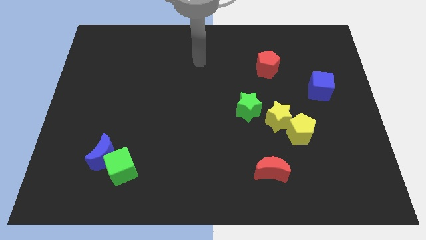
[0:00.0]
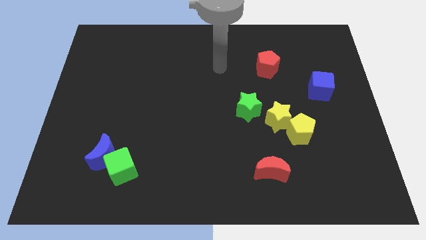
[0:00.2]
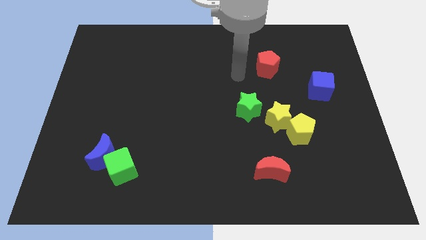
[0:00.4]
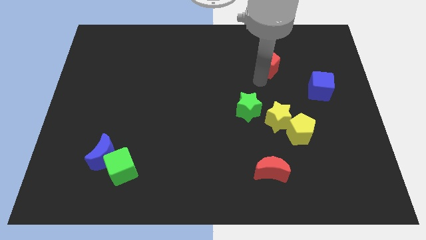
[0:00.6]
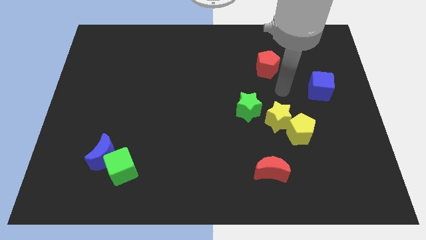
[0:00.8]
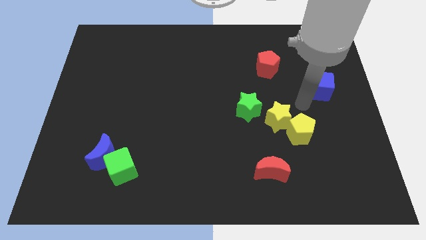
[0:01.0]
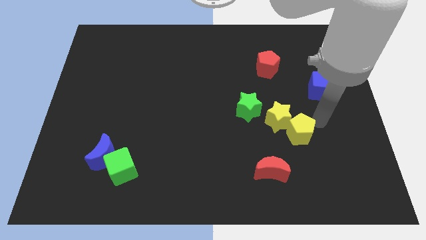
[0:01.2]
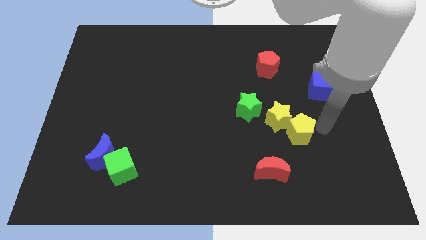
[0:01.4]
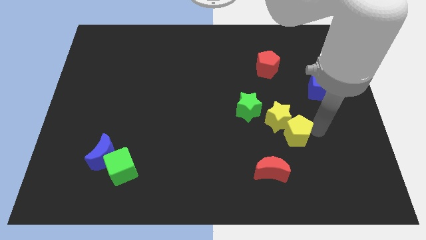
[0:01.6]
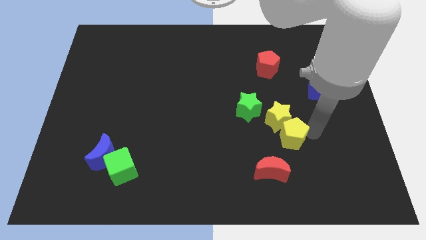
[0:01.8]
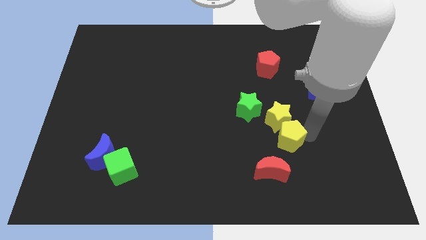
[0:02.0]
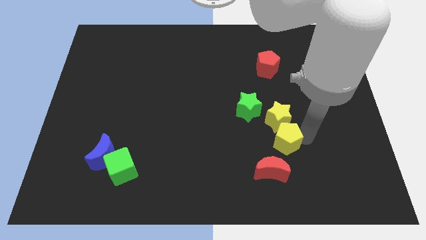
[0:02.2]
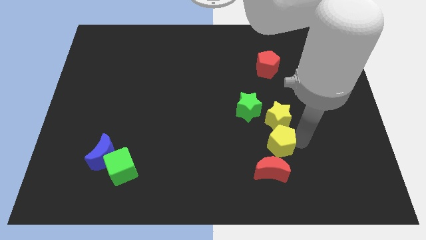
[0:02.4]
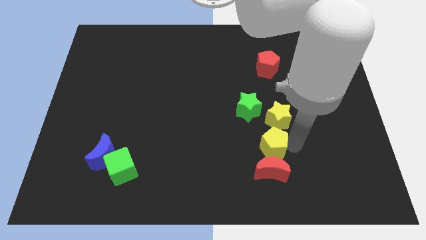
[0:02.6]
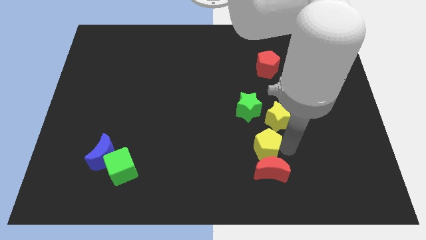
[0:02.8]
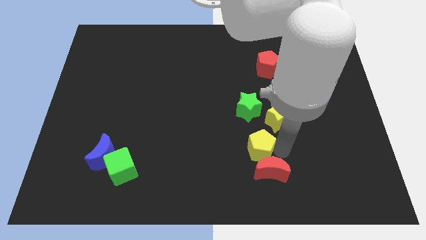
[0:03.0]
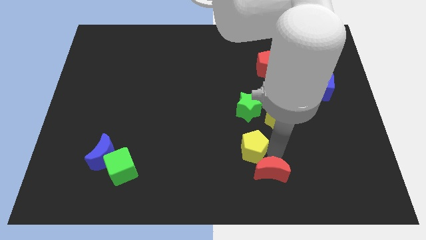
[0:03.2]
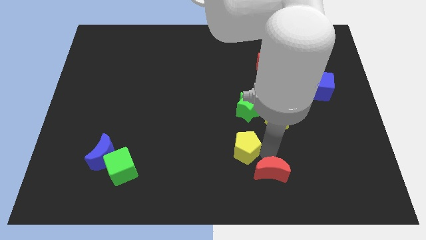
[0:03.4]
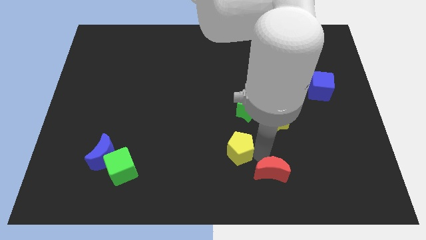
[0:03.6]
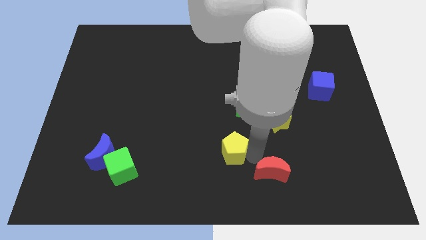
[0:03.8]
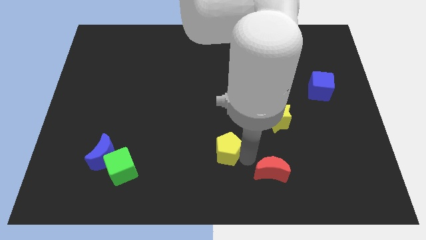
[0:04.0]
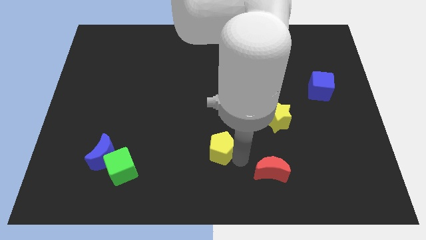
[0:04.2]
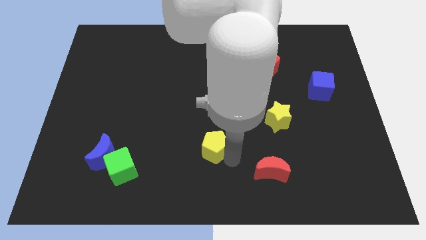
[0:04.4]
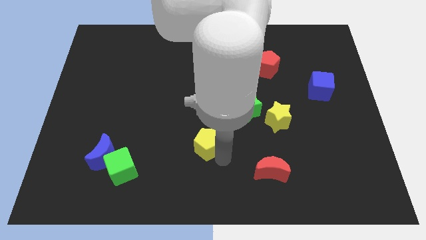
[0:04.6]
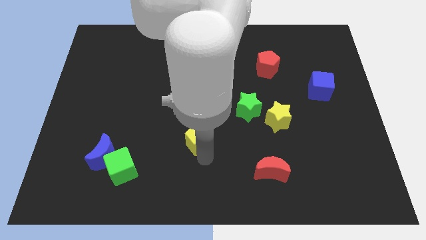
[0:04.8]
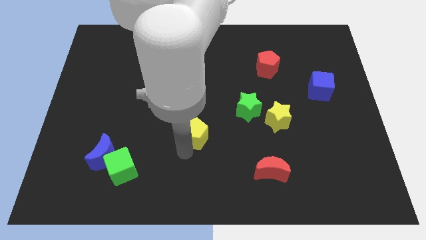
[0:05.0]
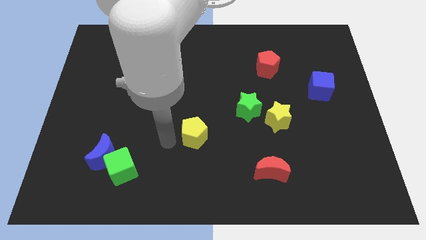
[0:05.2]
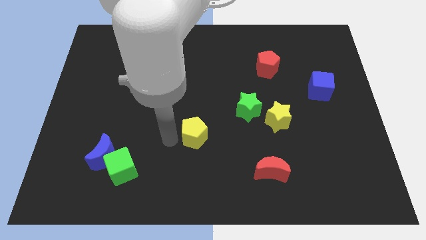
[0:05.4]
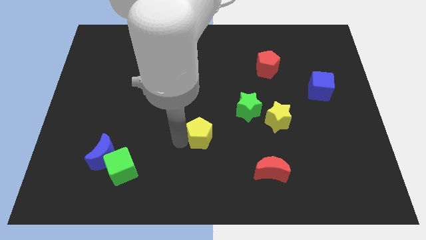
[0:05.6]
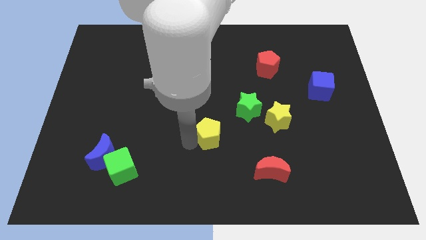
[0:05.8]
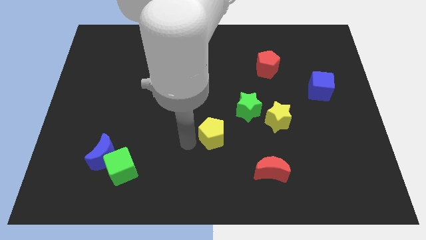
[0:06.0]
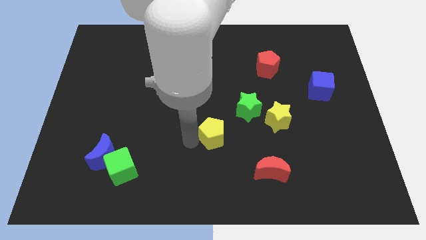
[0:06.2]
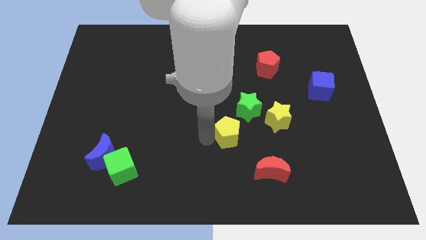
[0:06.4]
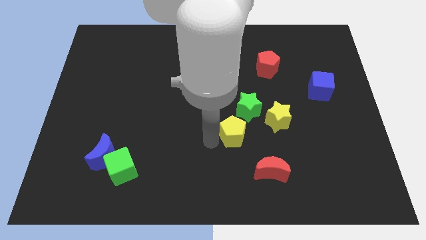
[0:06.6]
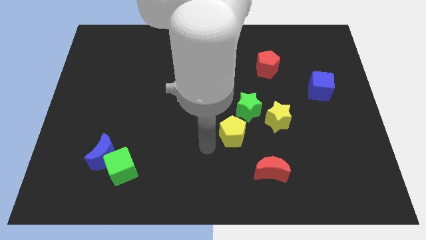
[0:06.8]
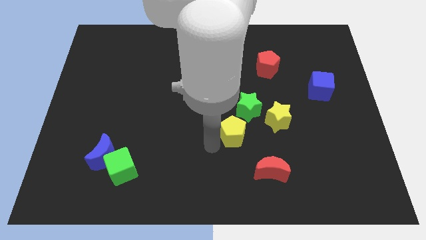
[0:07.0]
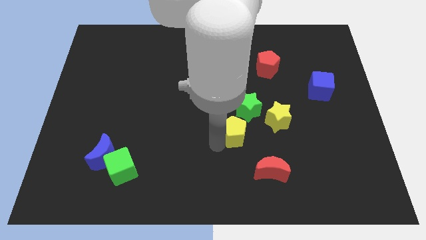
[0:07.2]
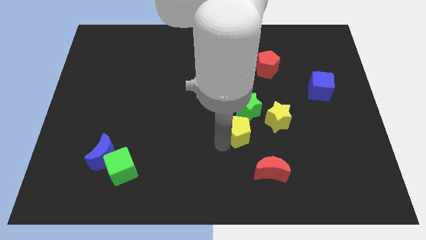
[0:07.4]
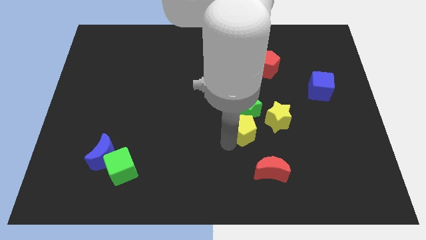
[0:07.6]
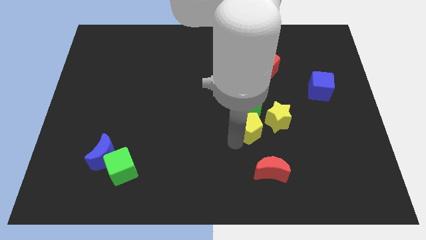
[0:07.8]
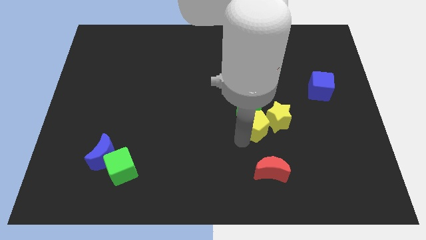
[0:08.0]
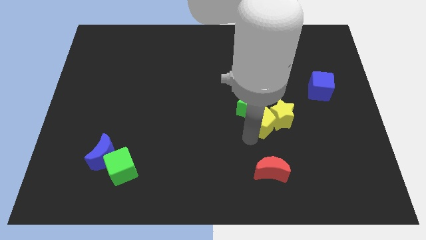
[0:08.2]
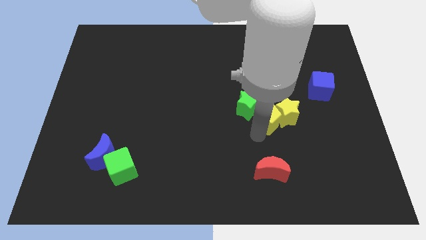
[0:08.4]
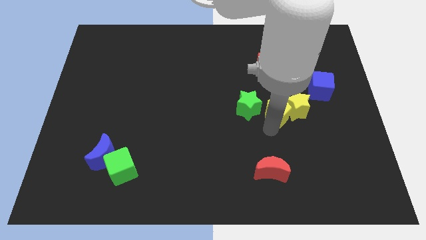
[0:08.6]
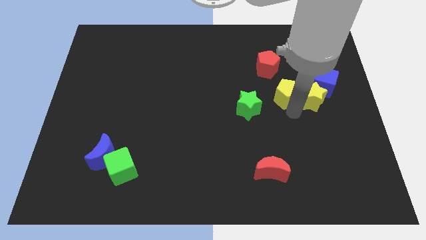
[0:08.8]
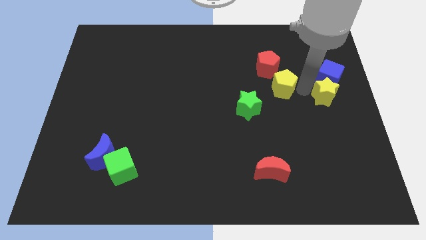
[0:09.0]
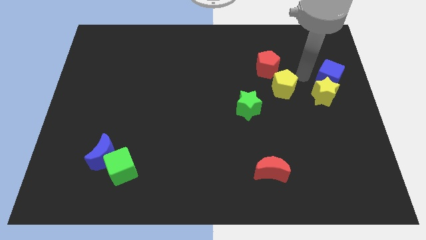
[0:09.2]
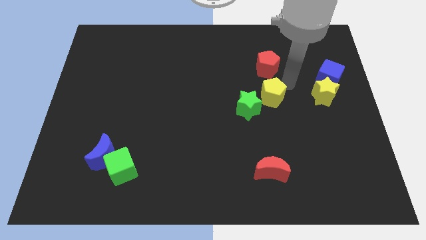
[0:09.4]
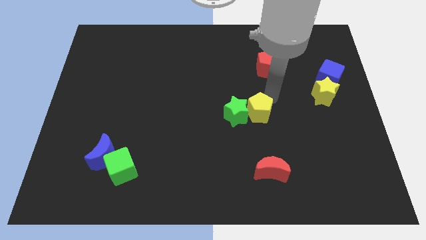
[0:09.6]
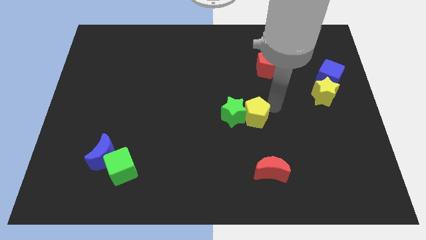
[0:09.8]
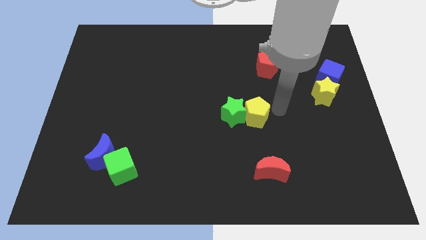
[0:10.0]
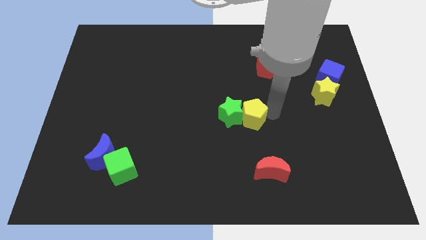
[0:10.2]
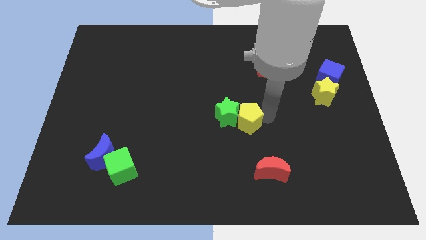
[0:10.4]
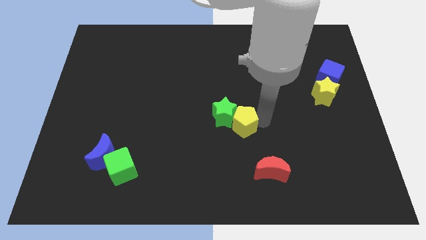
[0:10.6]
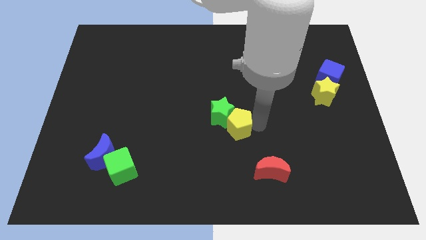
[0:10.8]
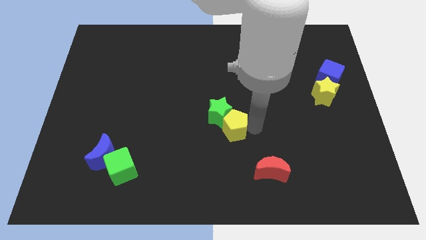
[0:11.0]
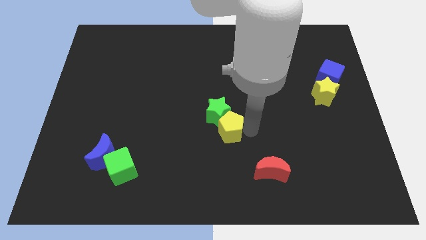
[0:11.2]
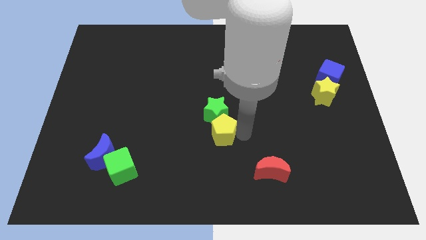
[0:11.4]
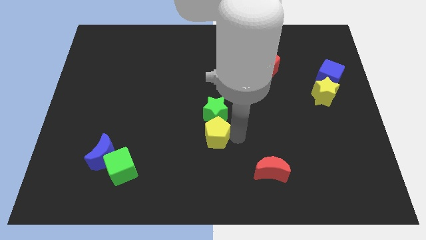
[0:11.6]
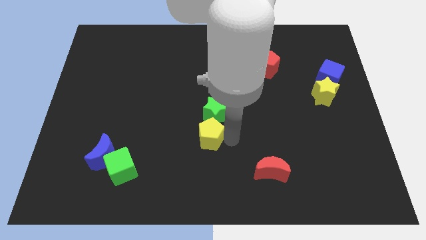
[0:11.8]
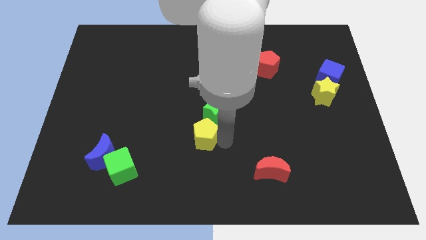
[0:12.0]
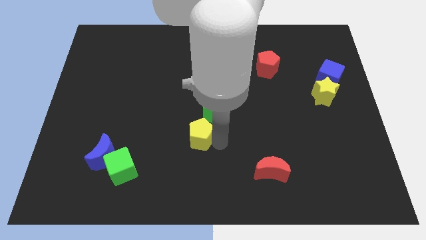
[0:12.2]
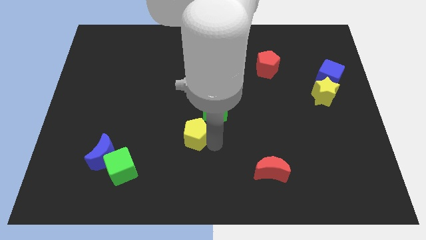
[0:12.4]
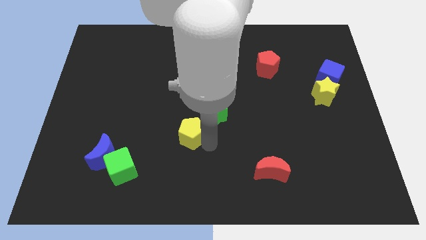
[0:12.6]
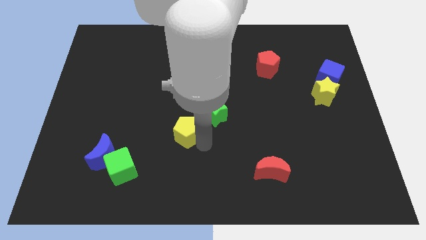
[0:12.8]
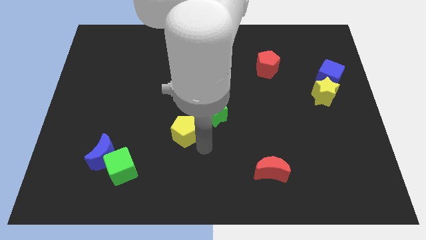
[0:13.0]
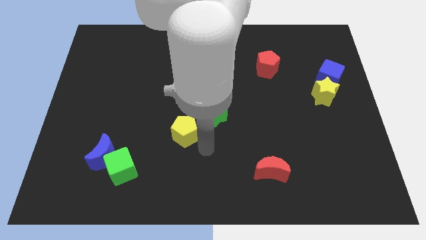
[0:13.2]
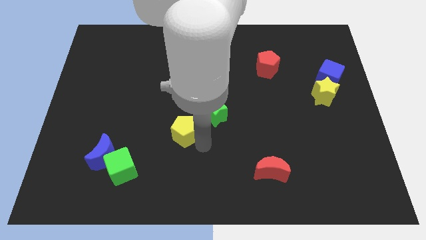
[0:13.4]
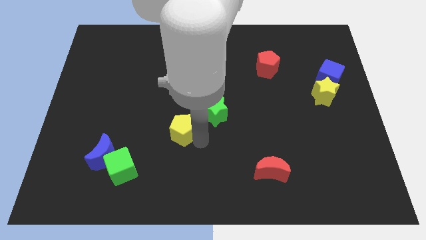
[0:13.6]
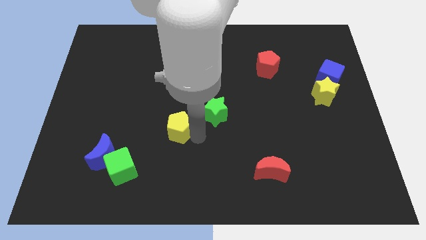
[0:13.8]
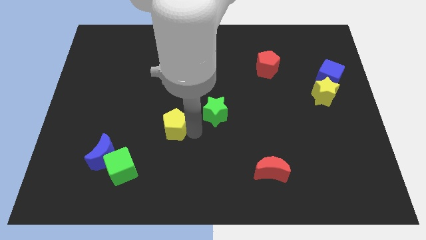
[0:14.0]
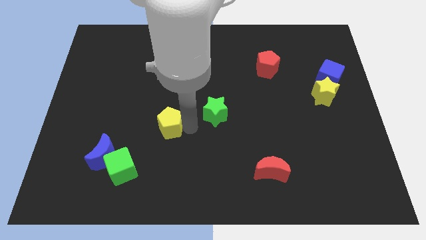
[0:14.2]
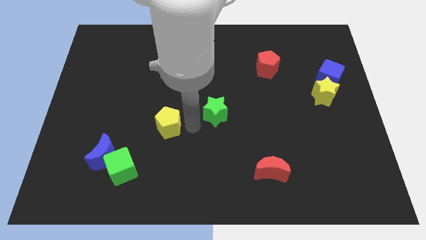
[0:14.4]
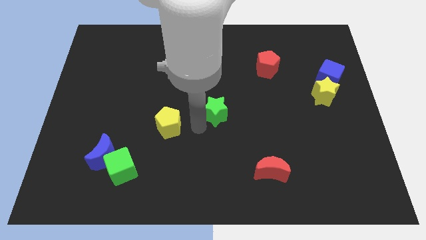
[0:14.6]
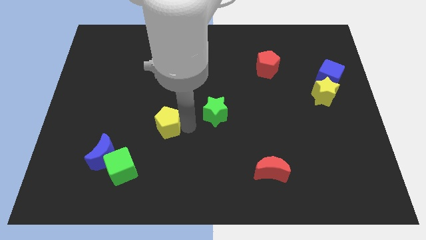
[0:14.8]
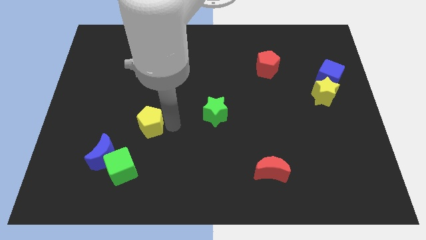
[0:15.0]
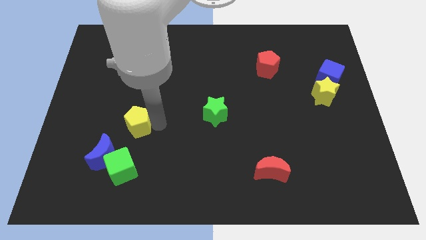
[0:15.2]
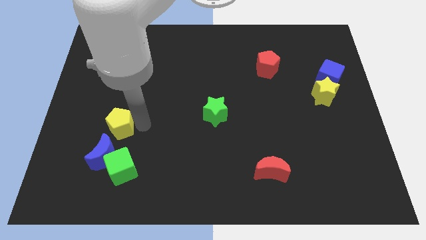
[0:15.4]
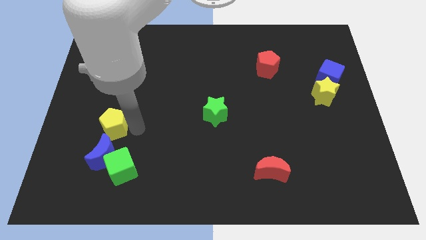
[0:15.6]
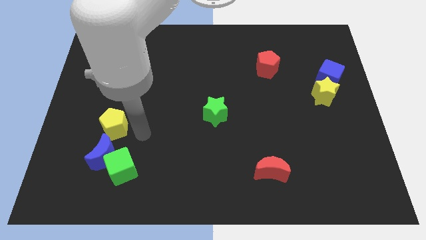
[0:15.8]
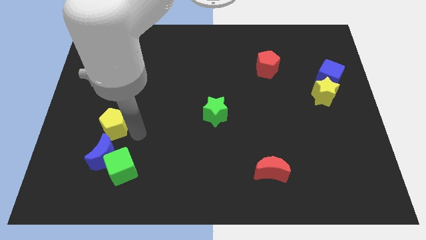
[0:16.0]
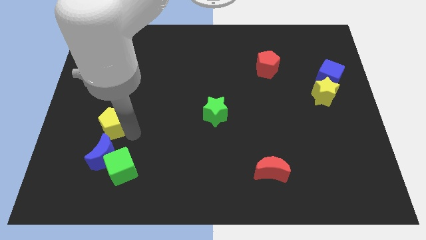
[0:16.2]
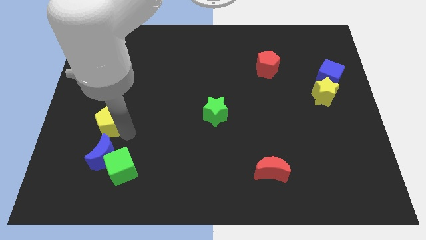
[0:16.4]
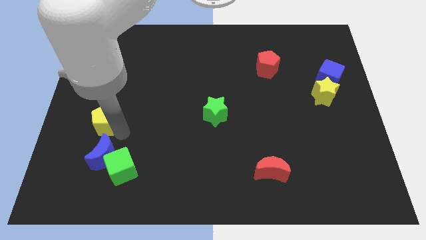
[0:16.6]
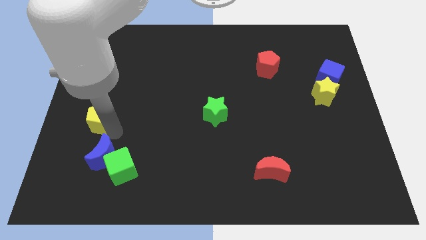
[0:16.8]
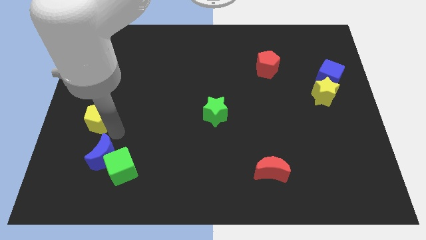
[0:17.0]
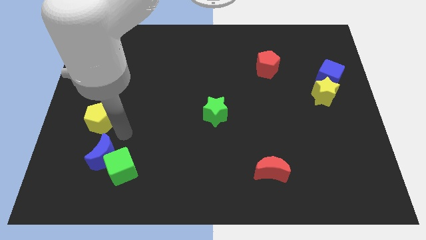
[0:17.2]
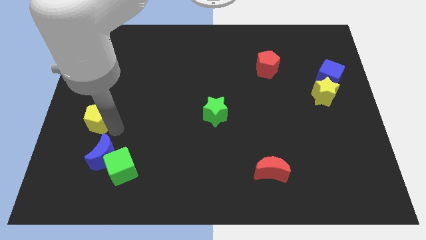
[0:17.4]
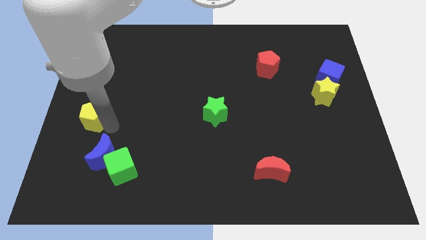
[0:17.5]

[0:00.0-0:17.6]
push the yellow pentagon to the left side
